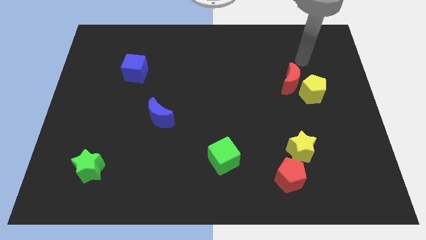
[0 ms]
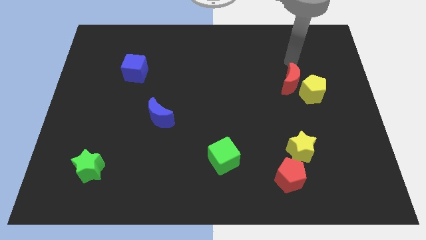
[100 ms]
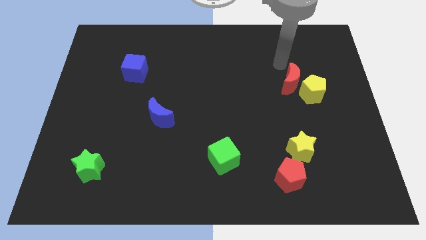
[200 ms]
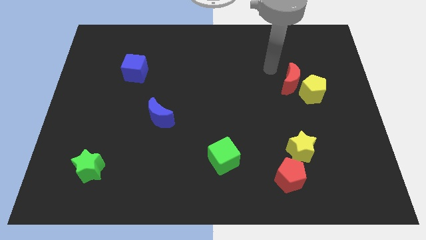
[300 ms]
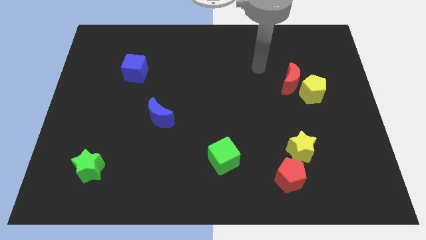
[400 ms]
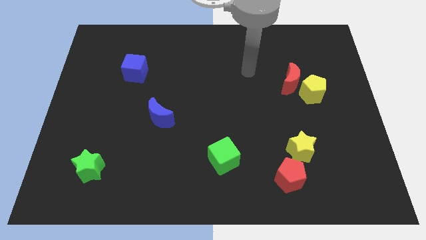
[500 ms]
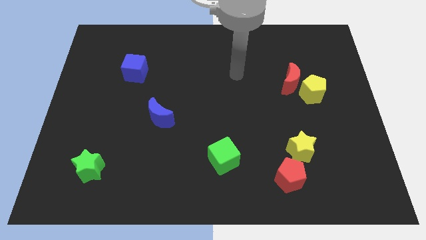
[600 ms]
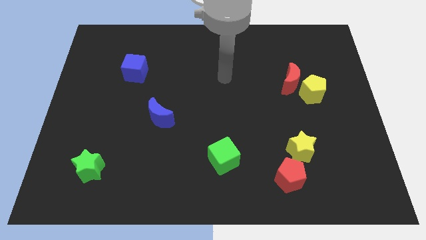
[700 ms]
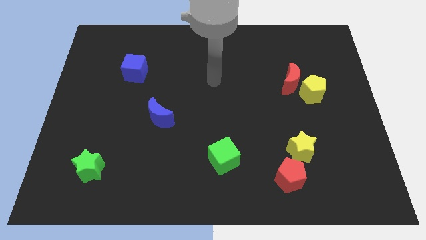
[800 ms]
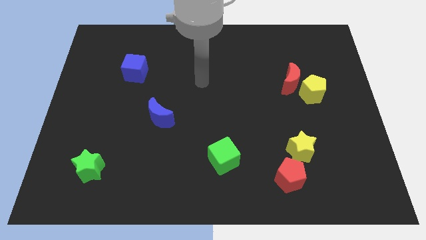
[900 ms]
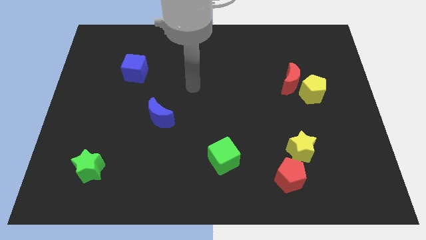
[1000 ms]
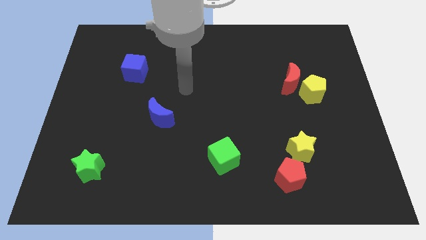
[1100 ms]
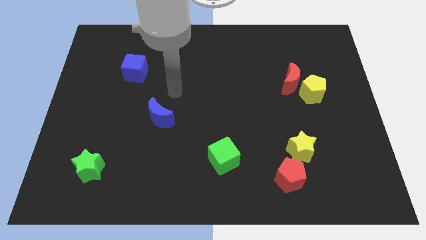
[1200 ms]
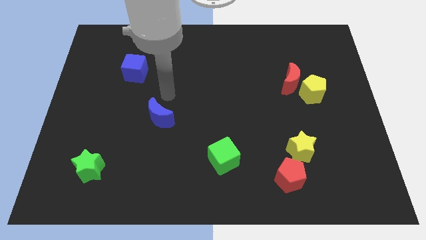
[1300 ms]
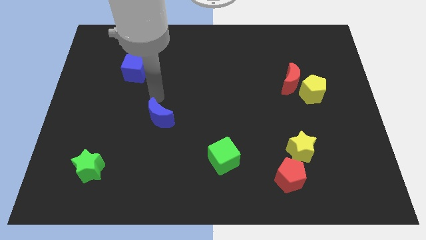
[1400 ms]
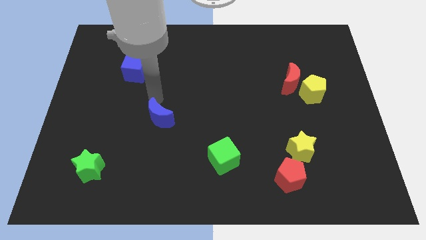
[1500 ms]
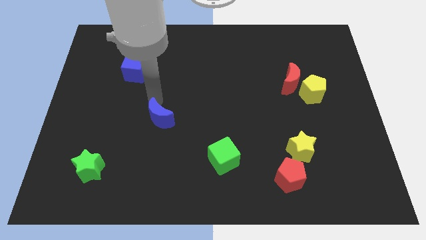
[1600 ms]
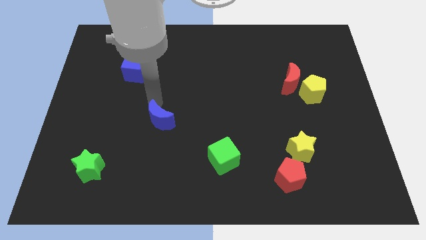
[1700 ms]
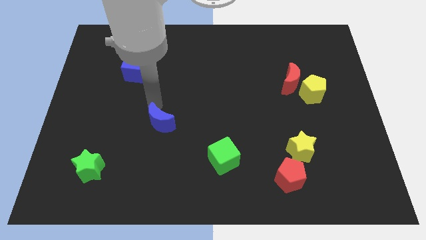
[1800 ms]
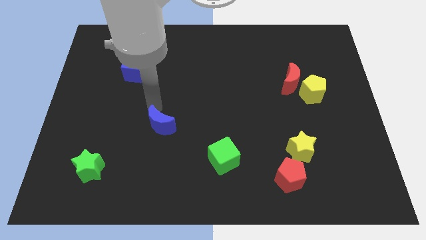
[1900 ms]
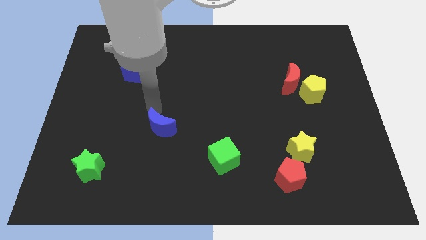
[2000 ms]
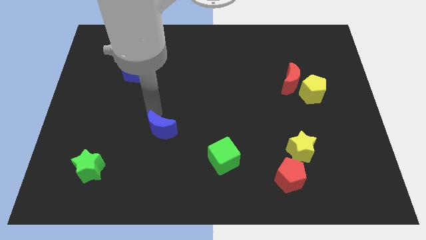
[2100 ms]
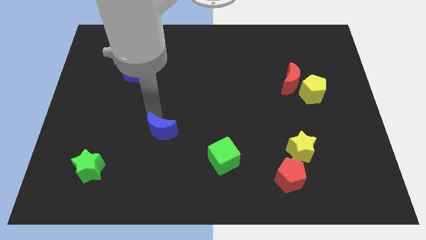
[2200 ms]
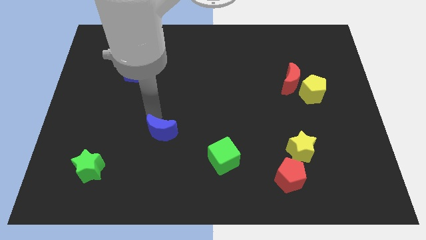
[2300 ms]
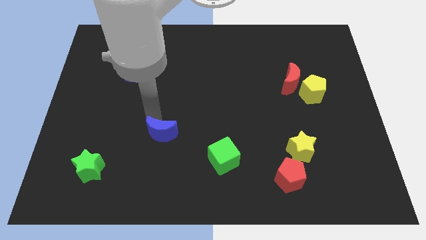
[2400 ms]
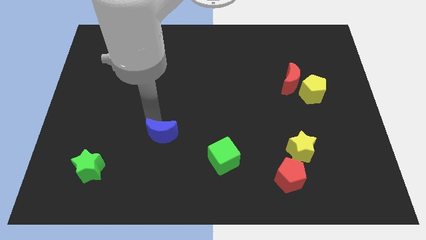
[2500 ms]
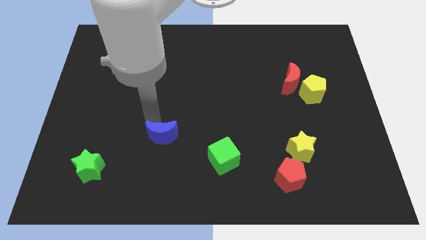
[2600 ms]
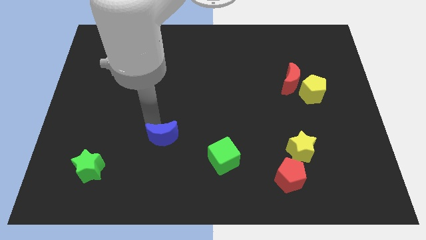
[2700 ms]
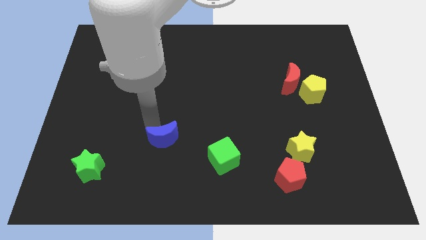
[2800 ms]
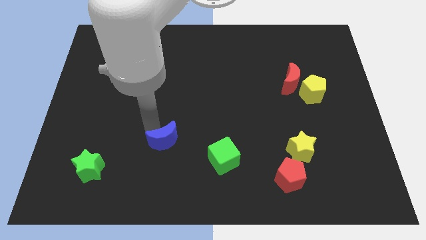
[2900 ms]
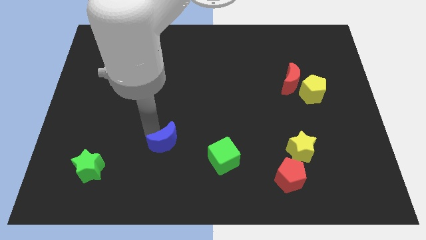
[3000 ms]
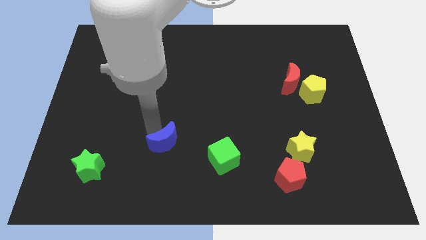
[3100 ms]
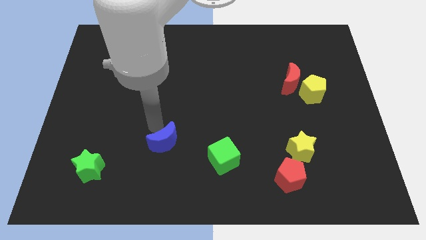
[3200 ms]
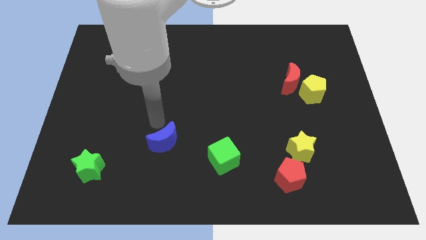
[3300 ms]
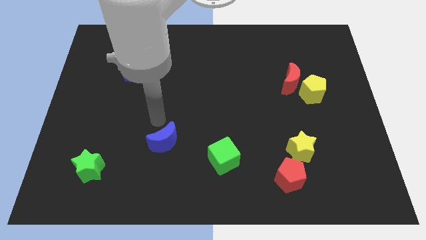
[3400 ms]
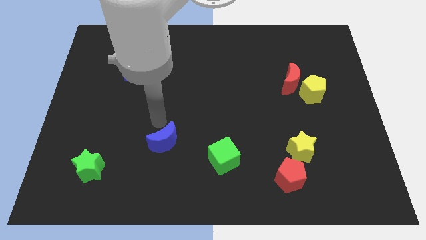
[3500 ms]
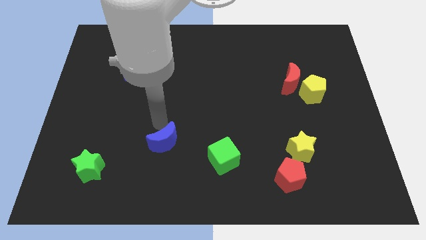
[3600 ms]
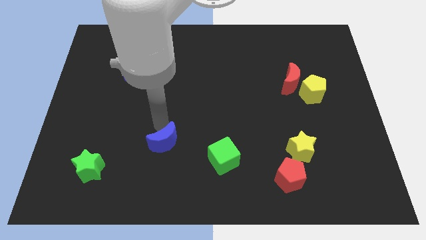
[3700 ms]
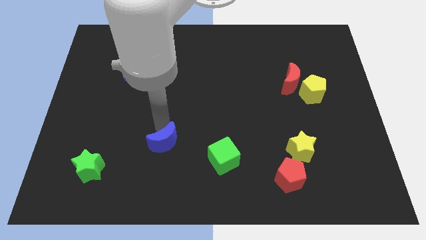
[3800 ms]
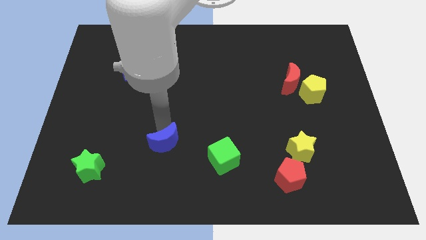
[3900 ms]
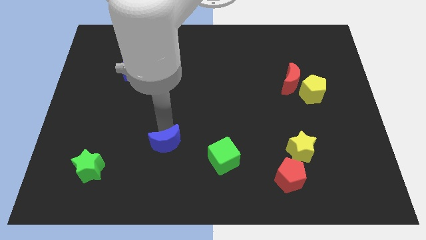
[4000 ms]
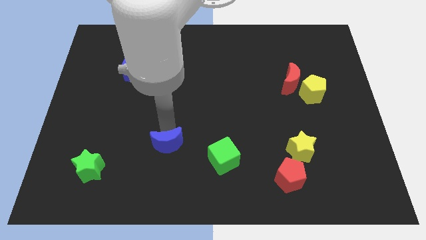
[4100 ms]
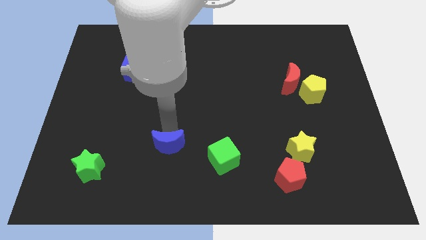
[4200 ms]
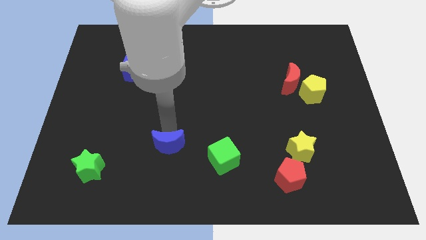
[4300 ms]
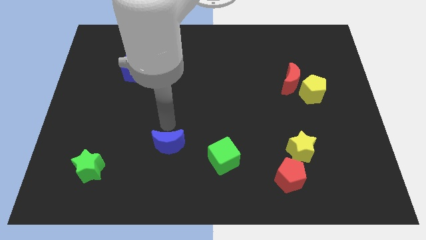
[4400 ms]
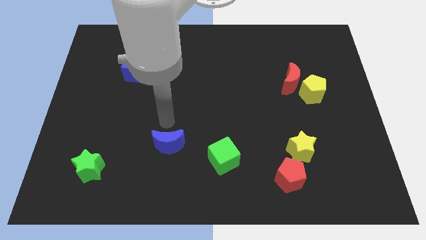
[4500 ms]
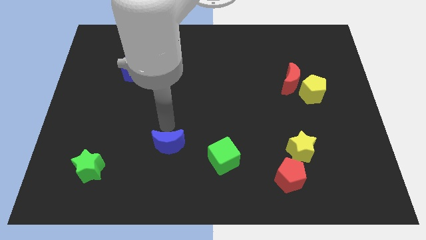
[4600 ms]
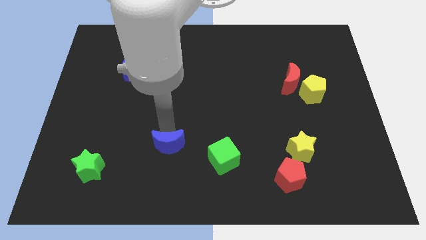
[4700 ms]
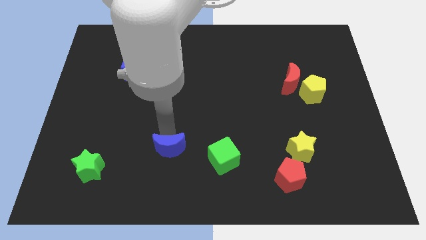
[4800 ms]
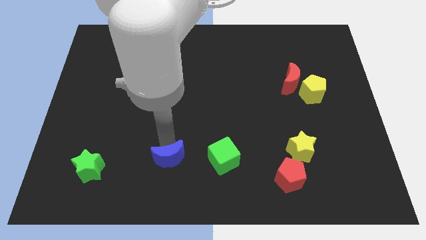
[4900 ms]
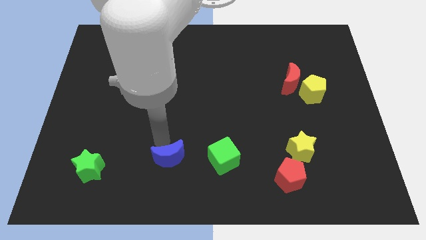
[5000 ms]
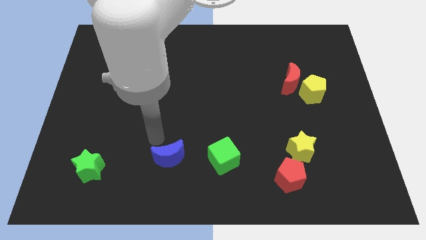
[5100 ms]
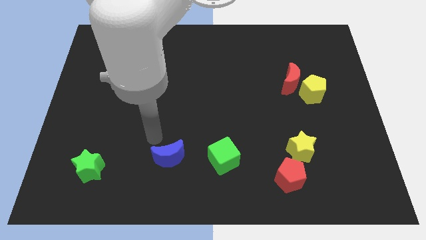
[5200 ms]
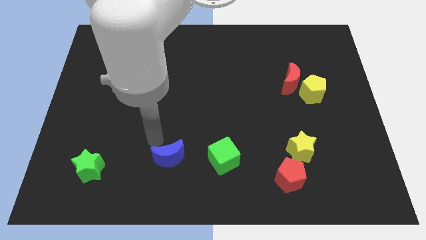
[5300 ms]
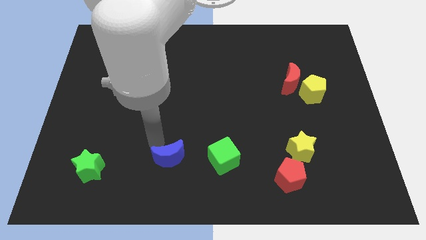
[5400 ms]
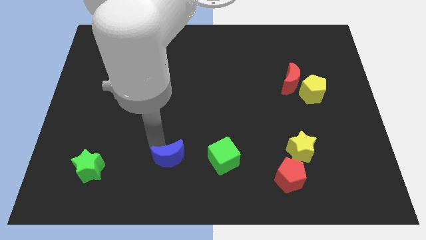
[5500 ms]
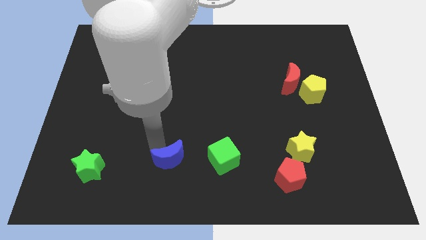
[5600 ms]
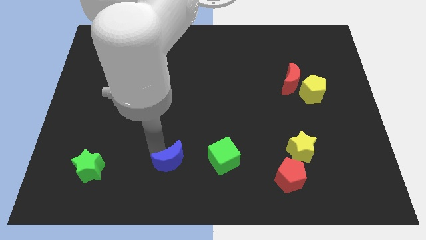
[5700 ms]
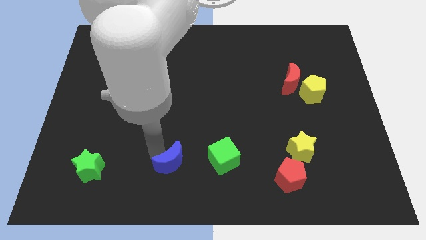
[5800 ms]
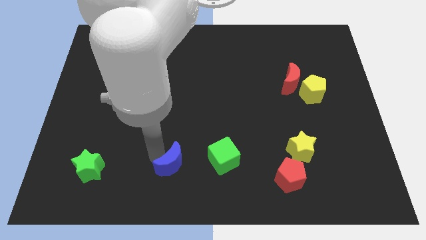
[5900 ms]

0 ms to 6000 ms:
put the blue moon to the bottom
